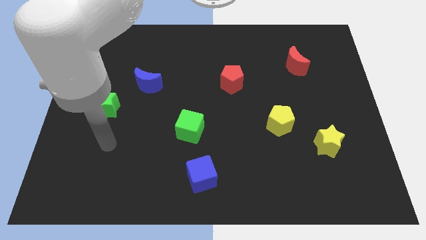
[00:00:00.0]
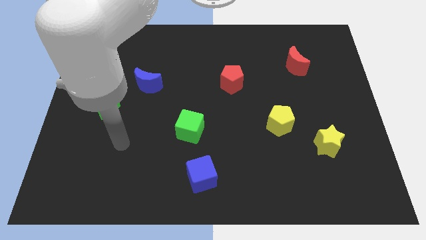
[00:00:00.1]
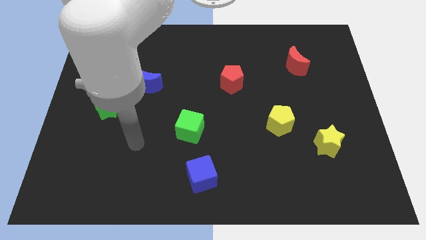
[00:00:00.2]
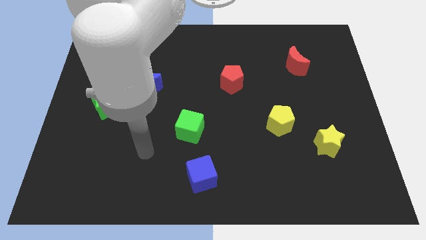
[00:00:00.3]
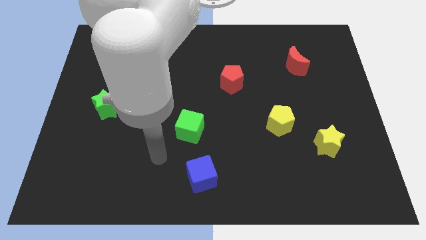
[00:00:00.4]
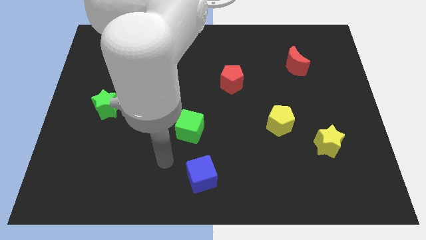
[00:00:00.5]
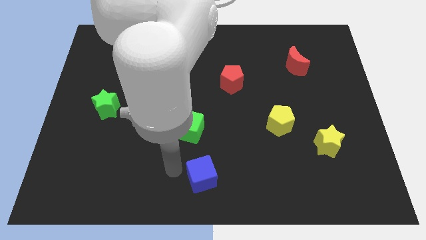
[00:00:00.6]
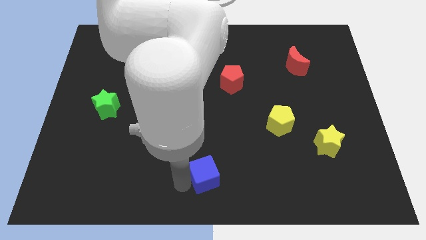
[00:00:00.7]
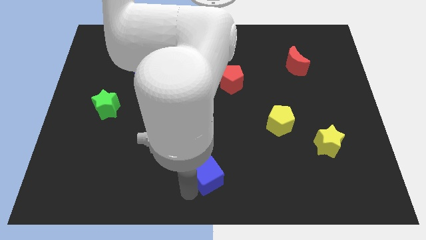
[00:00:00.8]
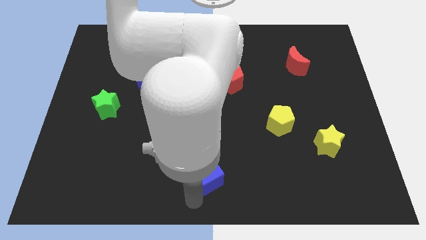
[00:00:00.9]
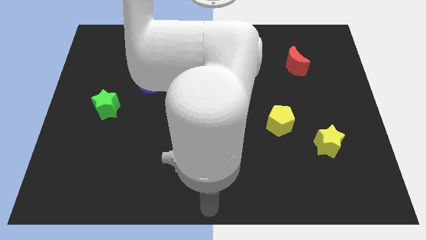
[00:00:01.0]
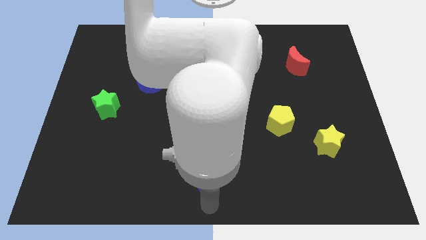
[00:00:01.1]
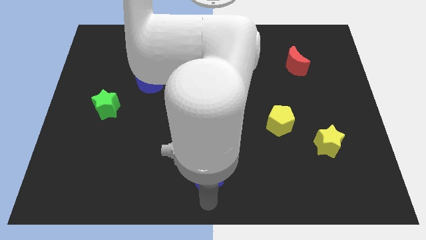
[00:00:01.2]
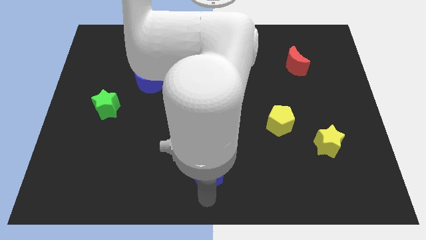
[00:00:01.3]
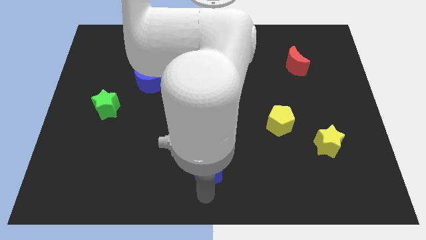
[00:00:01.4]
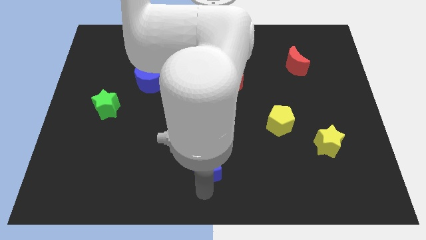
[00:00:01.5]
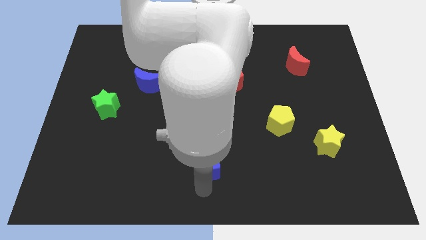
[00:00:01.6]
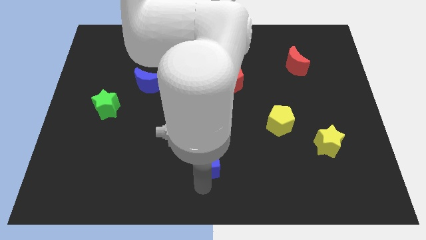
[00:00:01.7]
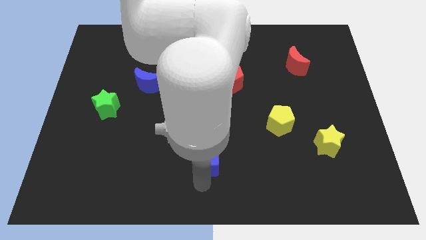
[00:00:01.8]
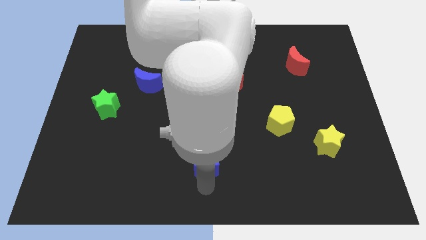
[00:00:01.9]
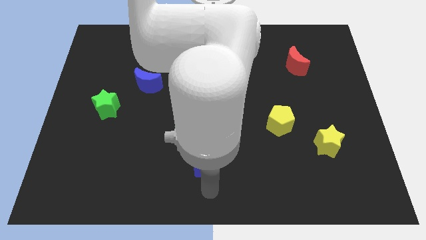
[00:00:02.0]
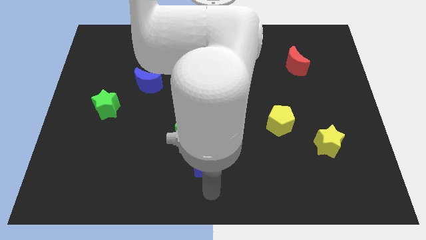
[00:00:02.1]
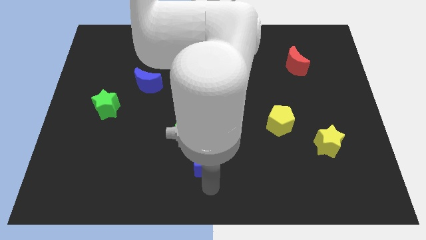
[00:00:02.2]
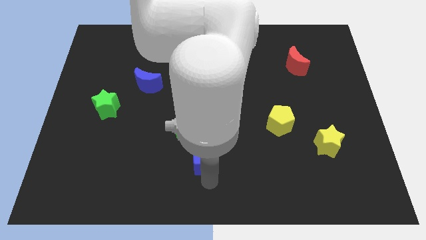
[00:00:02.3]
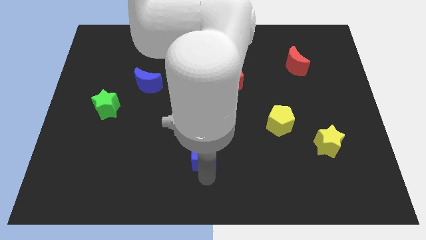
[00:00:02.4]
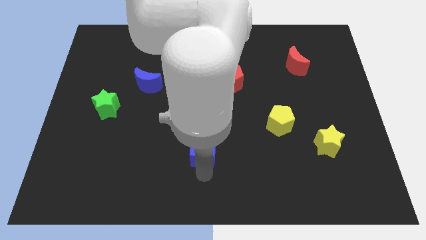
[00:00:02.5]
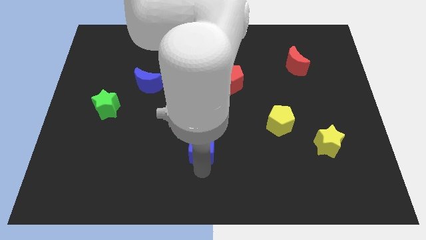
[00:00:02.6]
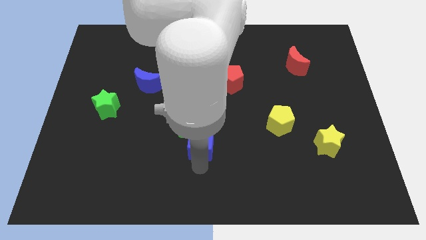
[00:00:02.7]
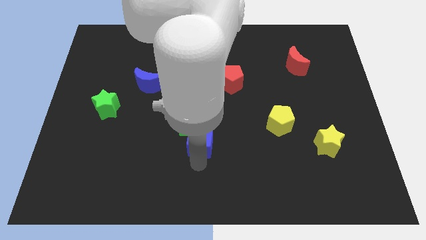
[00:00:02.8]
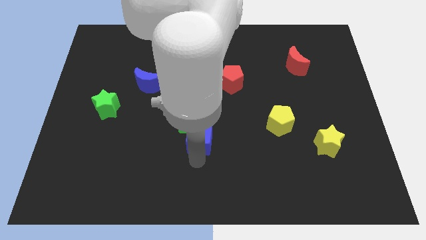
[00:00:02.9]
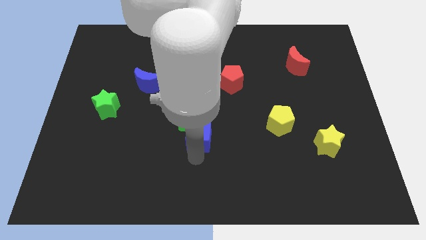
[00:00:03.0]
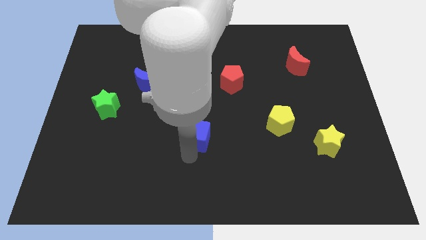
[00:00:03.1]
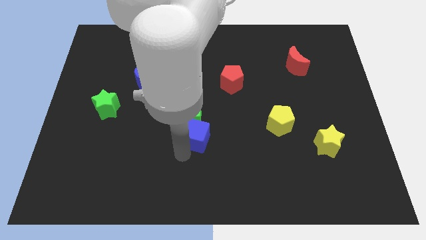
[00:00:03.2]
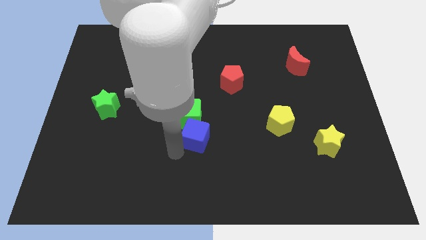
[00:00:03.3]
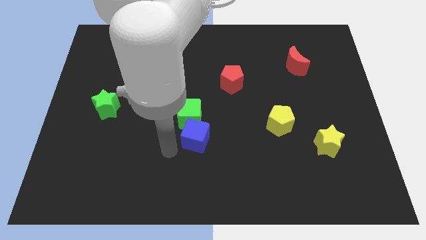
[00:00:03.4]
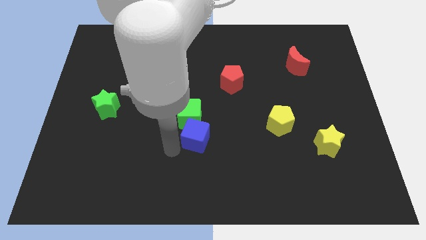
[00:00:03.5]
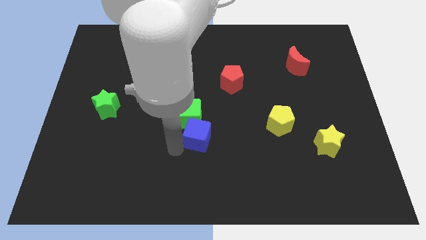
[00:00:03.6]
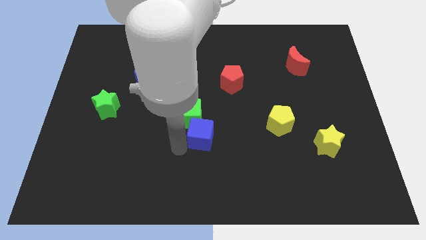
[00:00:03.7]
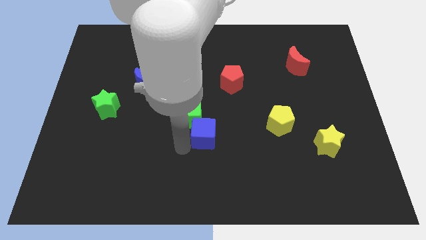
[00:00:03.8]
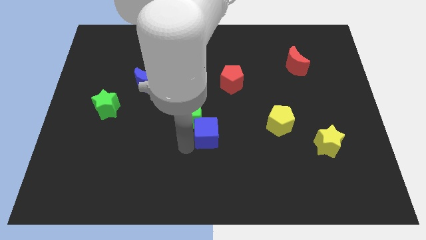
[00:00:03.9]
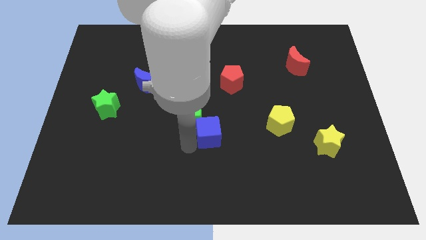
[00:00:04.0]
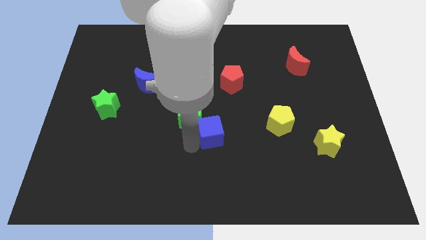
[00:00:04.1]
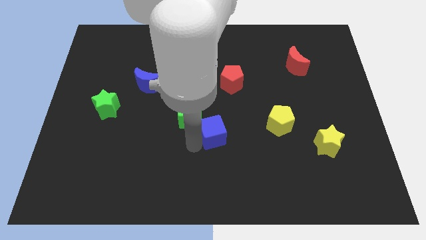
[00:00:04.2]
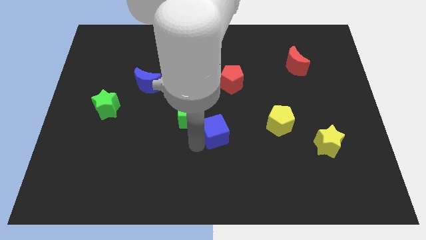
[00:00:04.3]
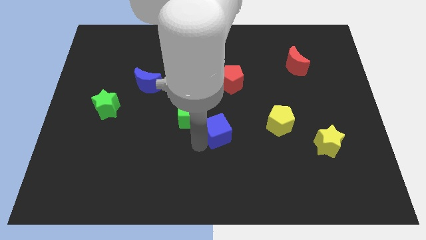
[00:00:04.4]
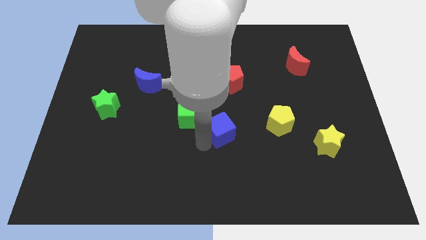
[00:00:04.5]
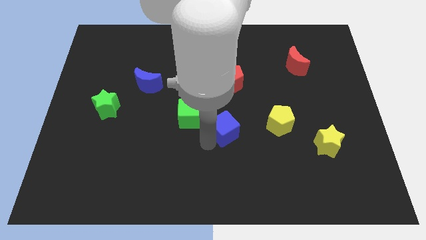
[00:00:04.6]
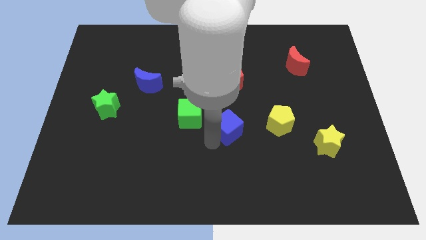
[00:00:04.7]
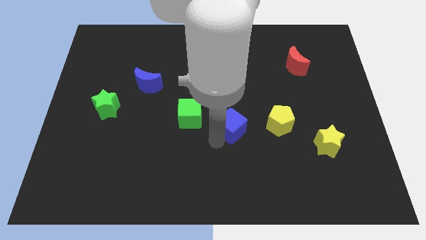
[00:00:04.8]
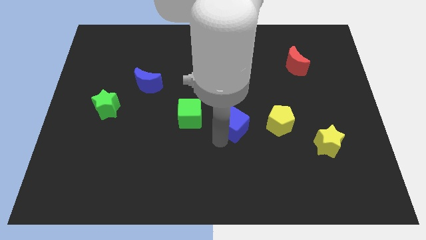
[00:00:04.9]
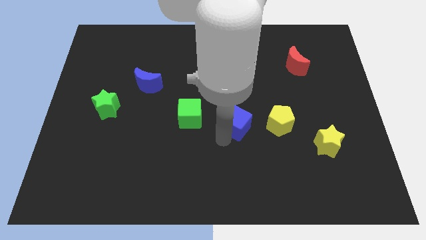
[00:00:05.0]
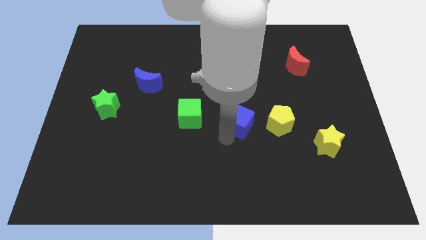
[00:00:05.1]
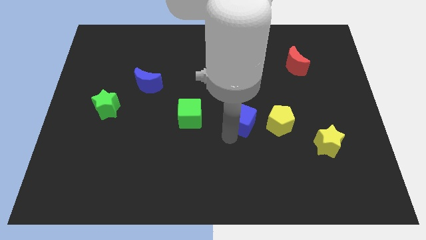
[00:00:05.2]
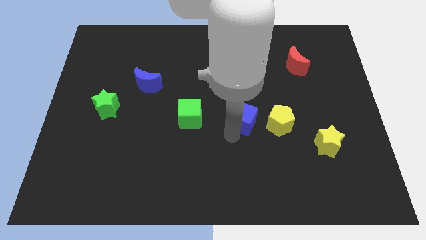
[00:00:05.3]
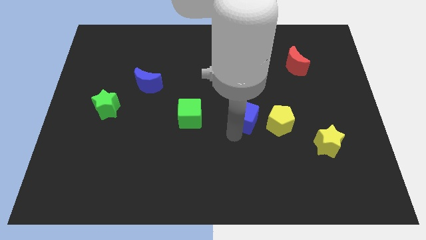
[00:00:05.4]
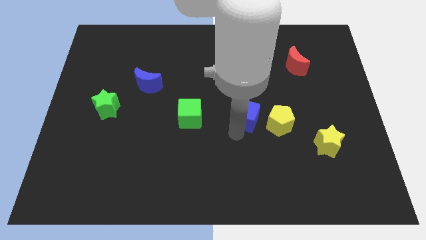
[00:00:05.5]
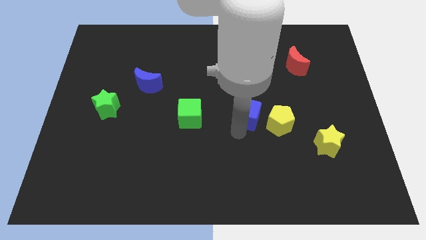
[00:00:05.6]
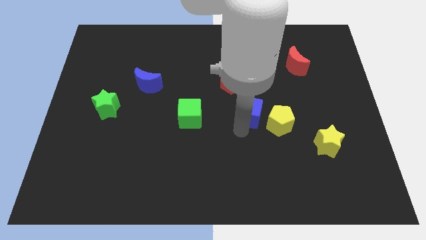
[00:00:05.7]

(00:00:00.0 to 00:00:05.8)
slide the blue cube to the bottom right side of the red pentagon

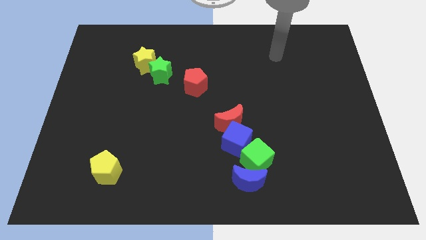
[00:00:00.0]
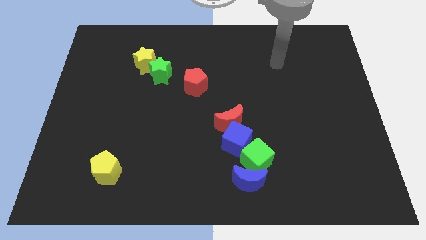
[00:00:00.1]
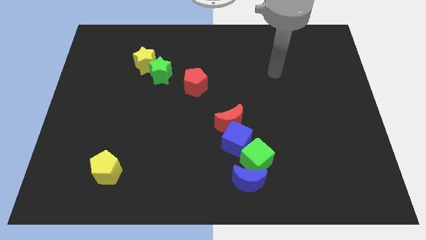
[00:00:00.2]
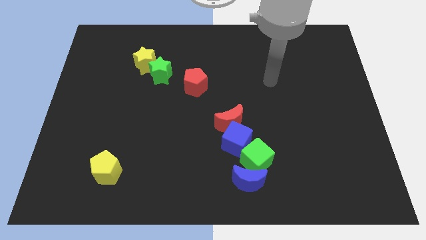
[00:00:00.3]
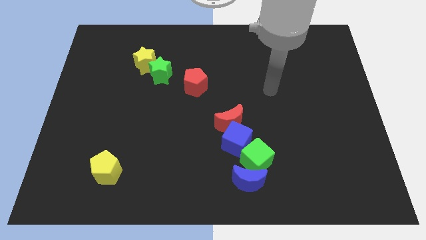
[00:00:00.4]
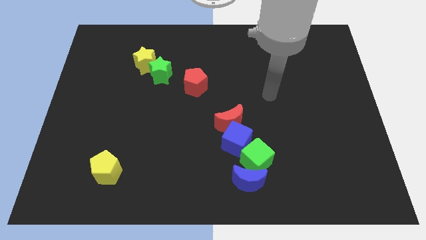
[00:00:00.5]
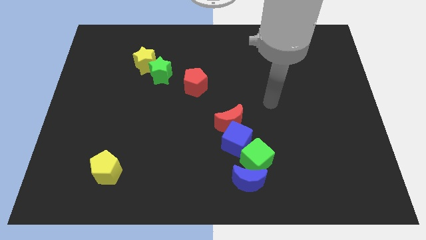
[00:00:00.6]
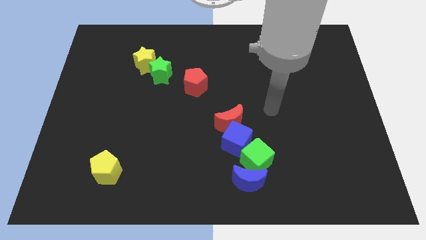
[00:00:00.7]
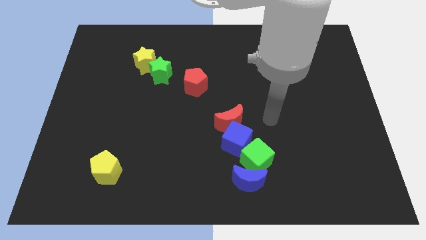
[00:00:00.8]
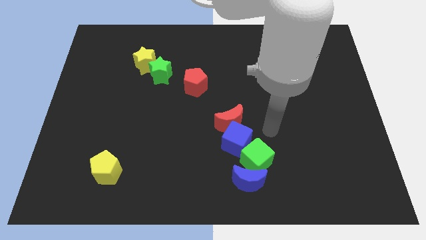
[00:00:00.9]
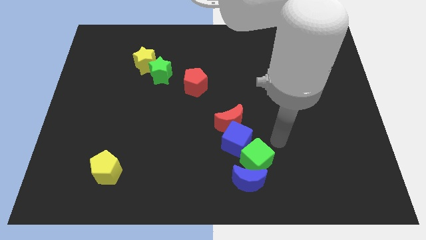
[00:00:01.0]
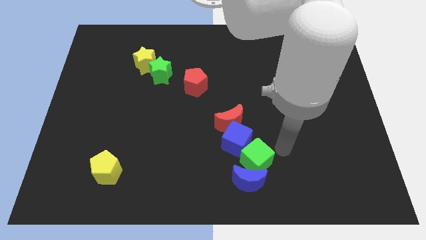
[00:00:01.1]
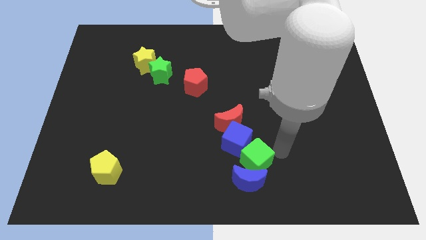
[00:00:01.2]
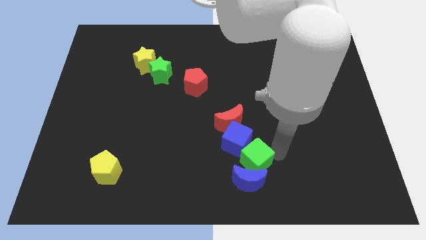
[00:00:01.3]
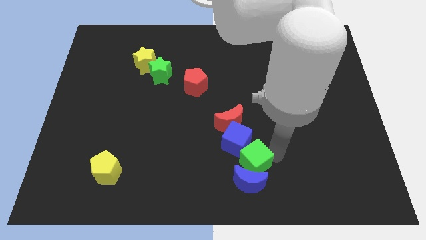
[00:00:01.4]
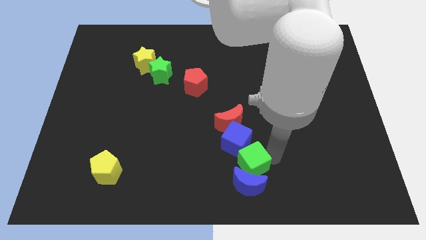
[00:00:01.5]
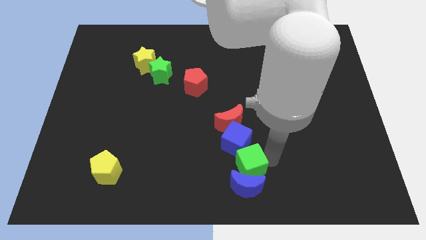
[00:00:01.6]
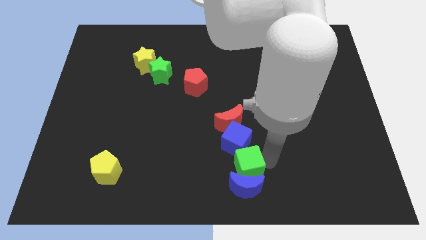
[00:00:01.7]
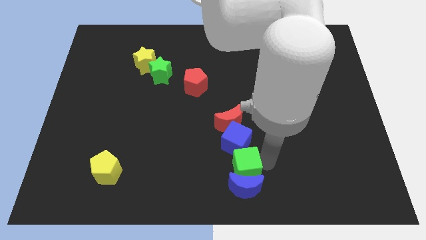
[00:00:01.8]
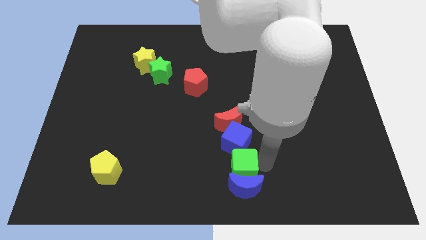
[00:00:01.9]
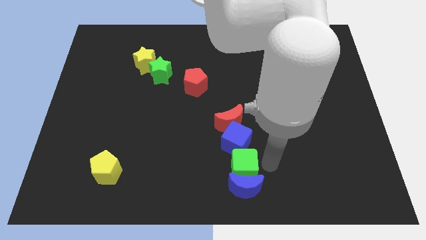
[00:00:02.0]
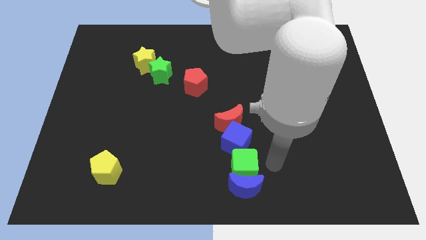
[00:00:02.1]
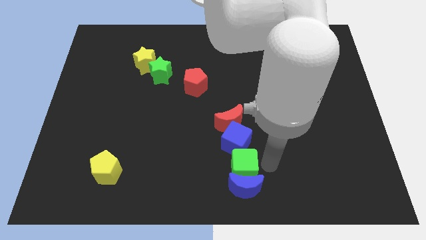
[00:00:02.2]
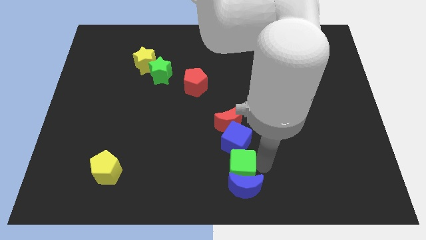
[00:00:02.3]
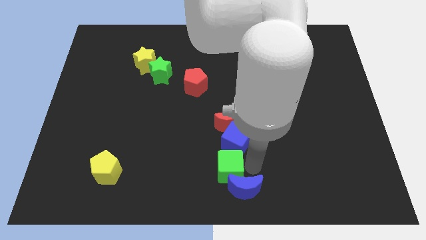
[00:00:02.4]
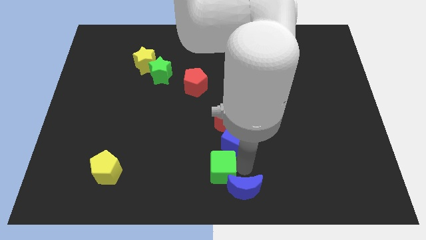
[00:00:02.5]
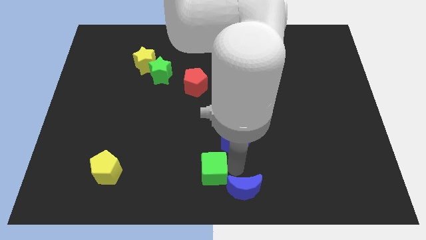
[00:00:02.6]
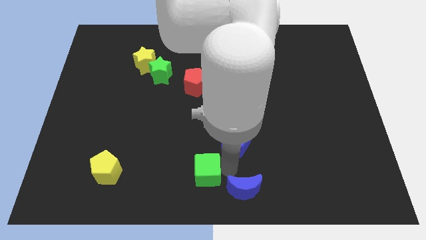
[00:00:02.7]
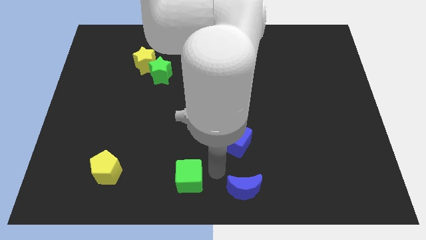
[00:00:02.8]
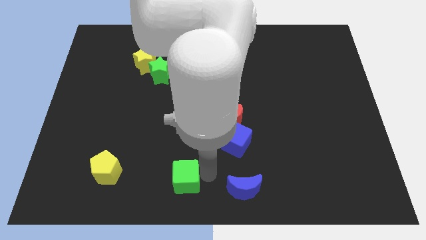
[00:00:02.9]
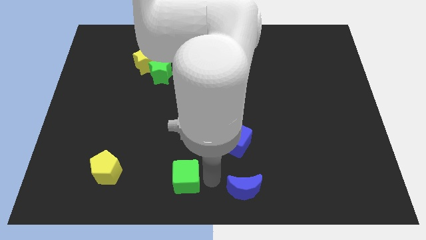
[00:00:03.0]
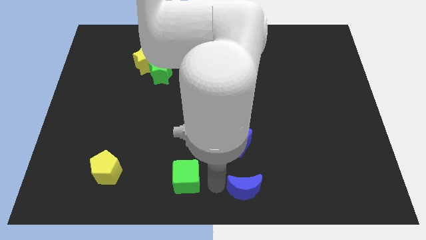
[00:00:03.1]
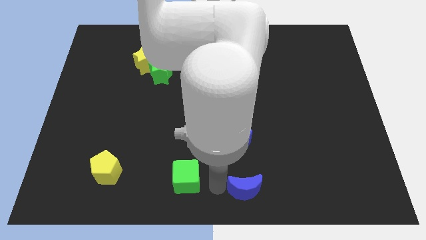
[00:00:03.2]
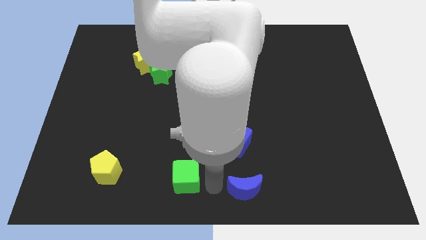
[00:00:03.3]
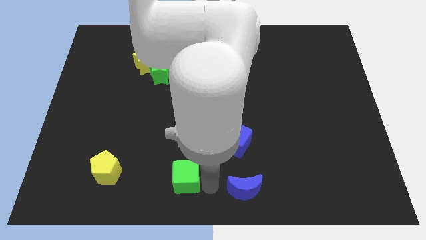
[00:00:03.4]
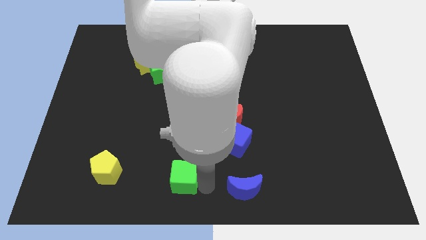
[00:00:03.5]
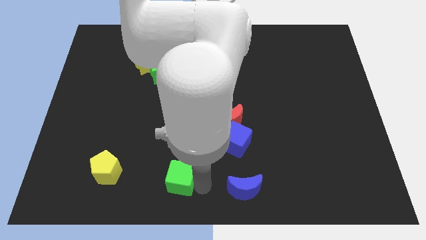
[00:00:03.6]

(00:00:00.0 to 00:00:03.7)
move the green cube just right of the yellow pentagon
